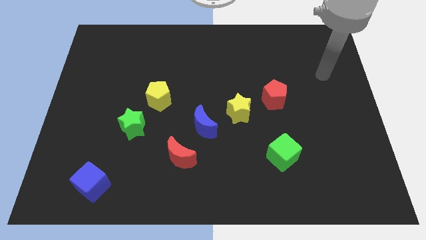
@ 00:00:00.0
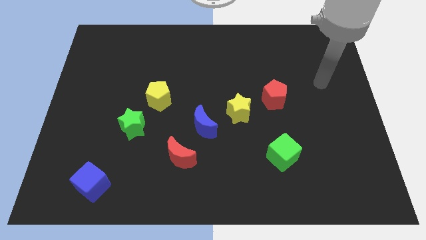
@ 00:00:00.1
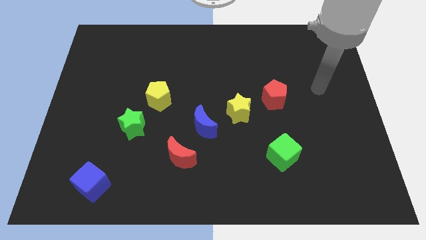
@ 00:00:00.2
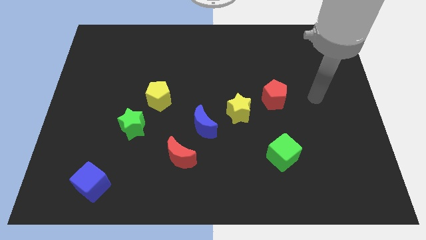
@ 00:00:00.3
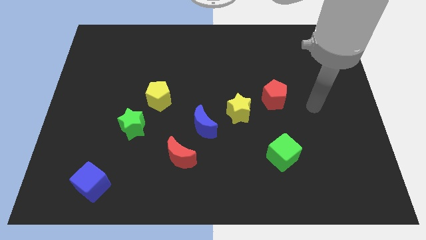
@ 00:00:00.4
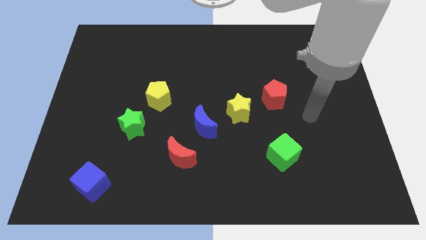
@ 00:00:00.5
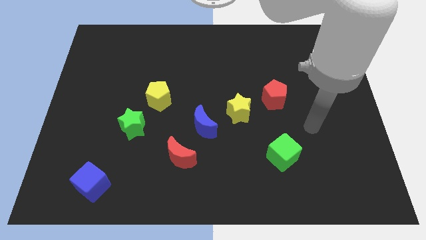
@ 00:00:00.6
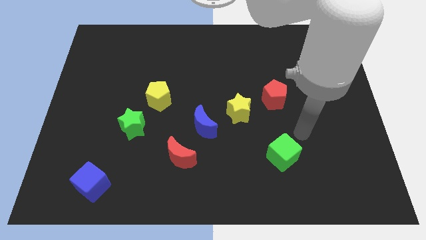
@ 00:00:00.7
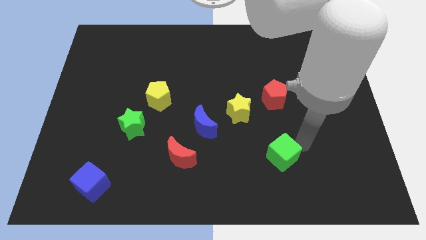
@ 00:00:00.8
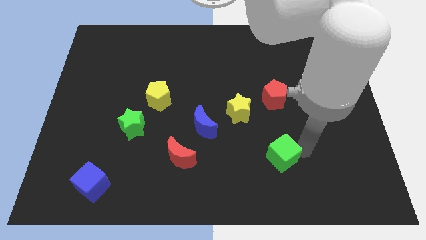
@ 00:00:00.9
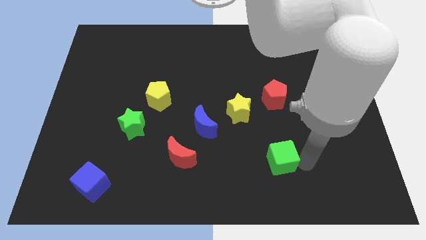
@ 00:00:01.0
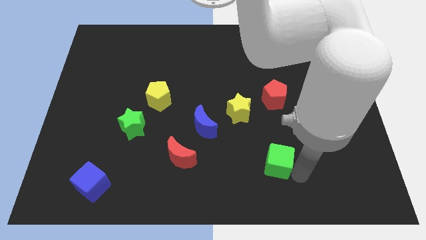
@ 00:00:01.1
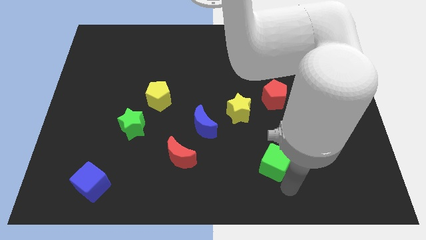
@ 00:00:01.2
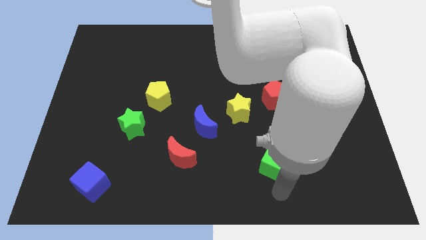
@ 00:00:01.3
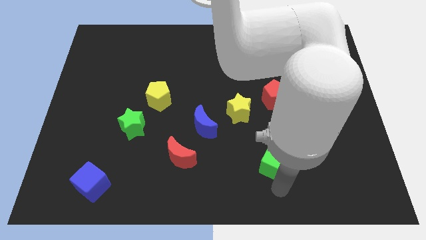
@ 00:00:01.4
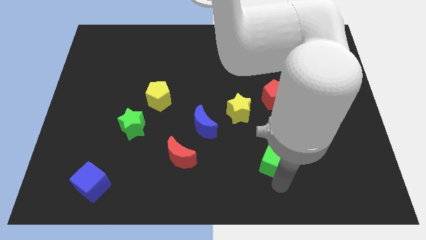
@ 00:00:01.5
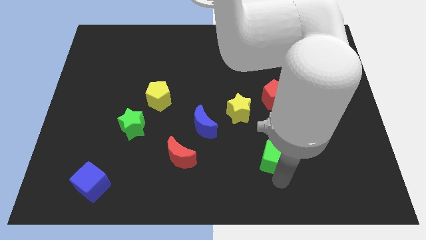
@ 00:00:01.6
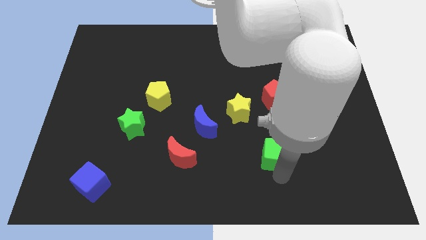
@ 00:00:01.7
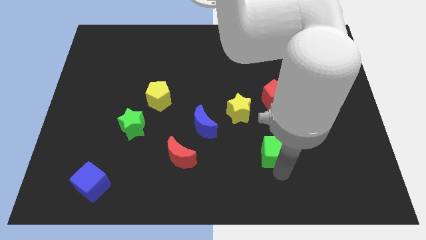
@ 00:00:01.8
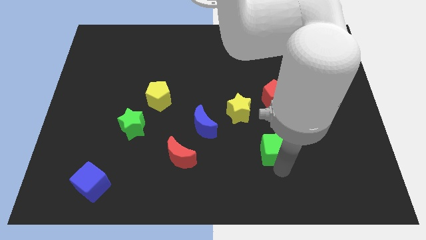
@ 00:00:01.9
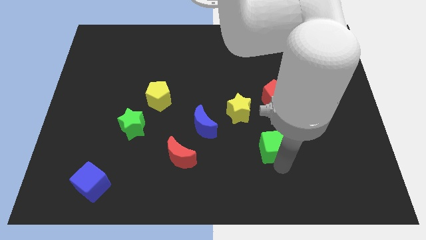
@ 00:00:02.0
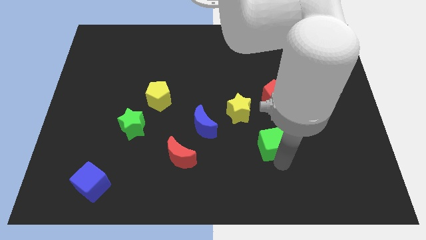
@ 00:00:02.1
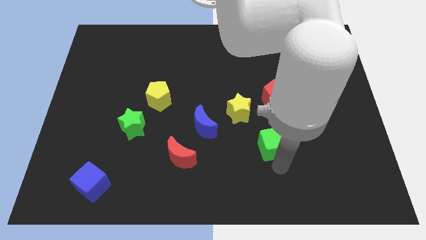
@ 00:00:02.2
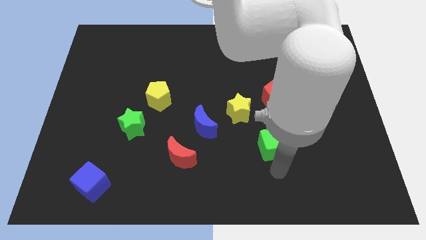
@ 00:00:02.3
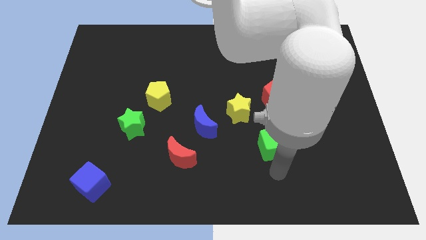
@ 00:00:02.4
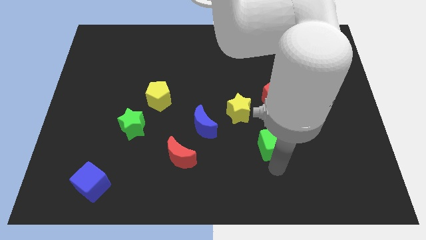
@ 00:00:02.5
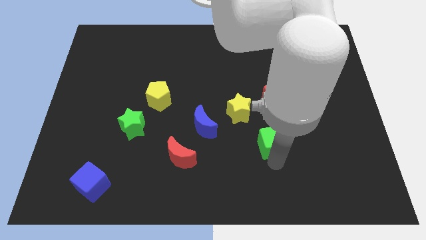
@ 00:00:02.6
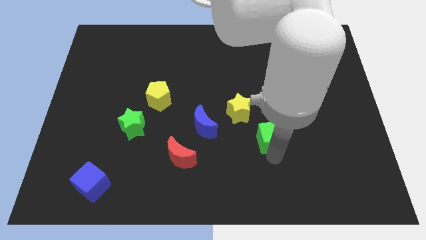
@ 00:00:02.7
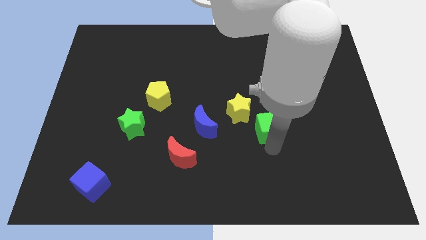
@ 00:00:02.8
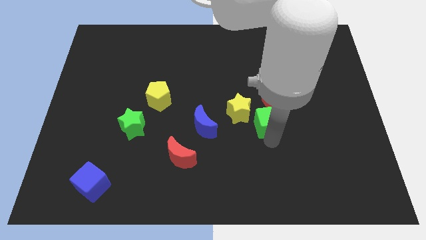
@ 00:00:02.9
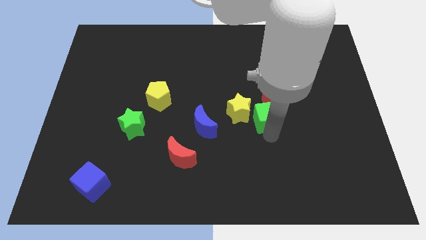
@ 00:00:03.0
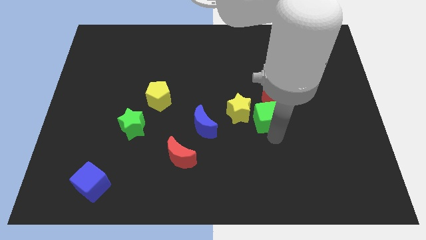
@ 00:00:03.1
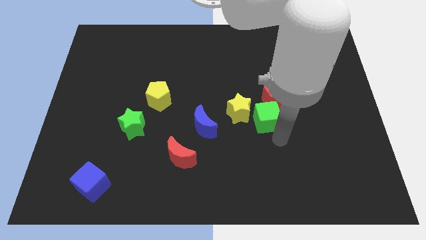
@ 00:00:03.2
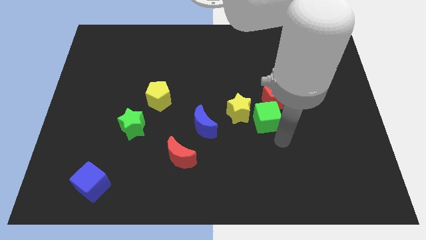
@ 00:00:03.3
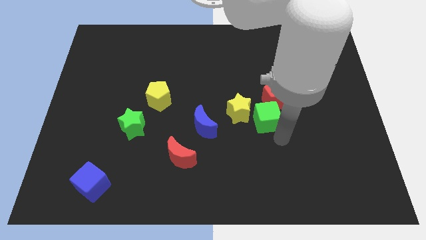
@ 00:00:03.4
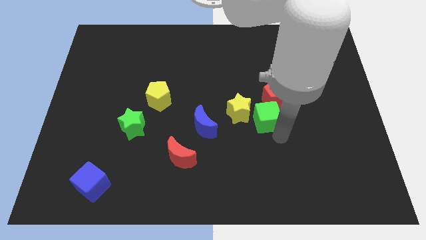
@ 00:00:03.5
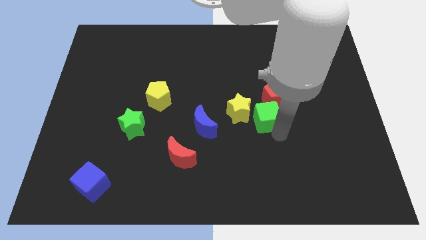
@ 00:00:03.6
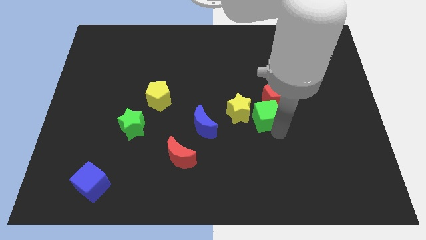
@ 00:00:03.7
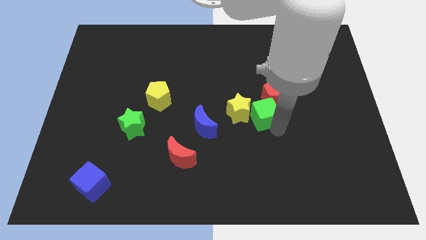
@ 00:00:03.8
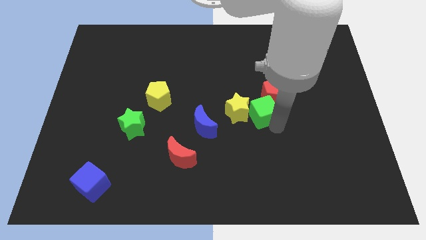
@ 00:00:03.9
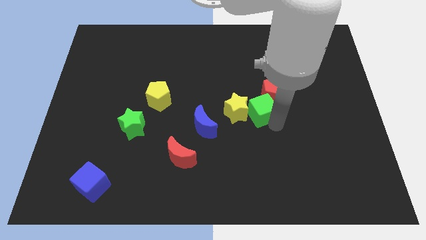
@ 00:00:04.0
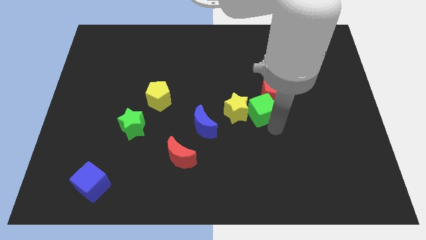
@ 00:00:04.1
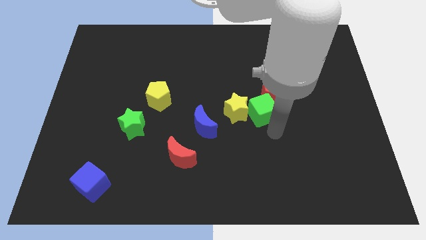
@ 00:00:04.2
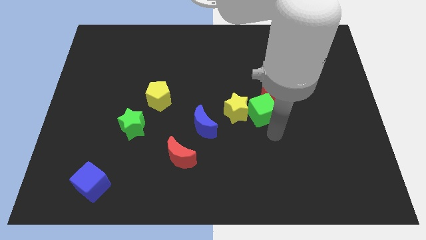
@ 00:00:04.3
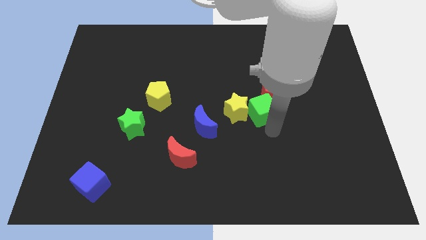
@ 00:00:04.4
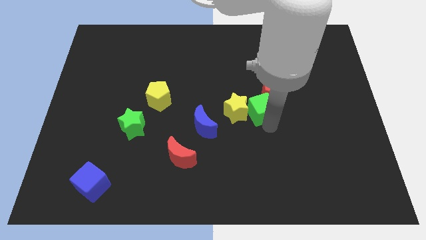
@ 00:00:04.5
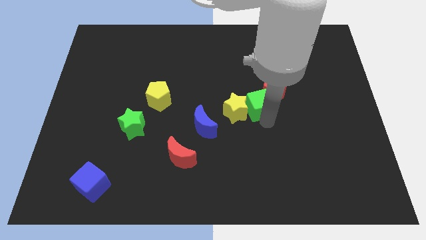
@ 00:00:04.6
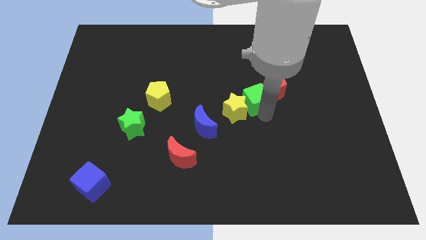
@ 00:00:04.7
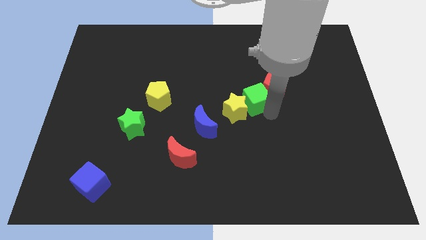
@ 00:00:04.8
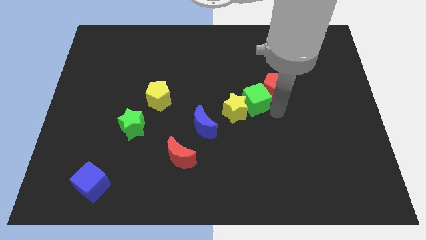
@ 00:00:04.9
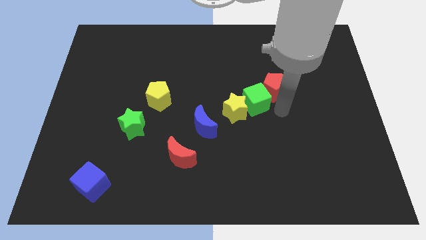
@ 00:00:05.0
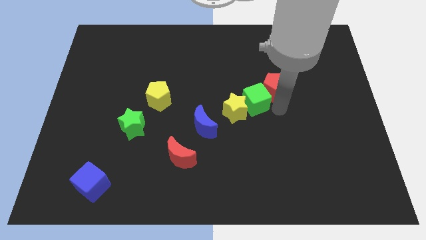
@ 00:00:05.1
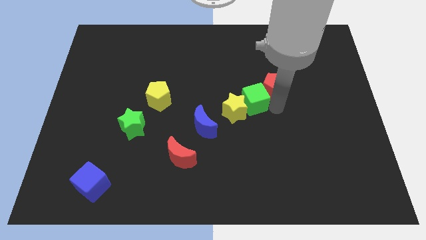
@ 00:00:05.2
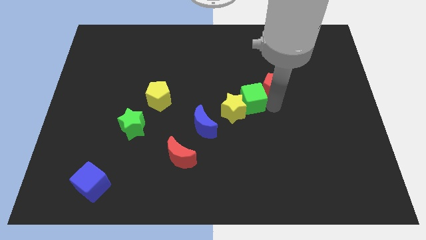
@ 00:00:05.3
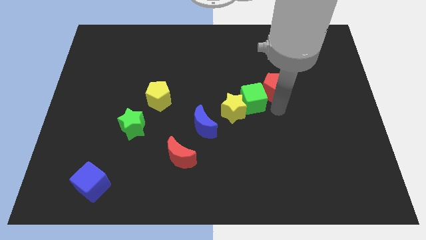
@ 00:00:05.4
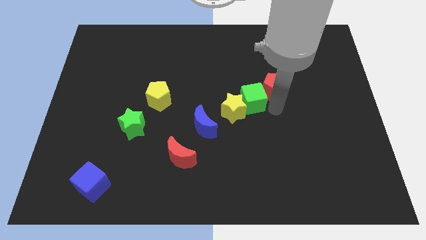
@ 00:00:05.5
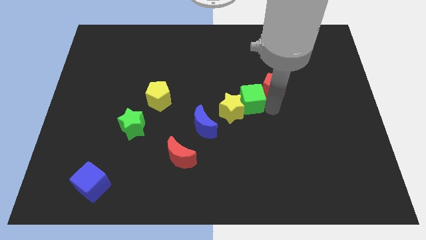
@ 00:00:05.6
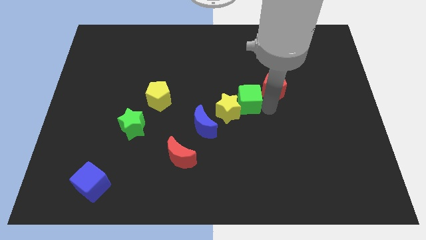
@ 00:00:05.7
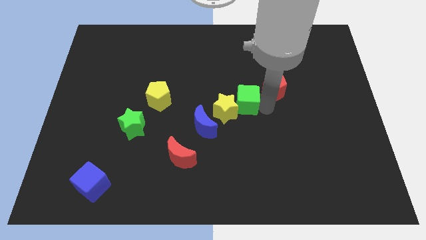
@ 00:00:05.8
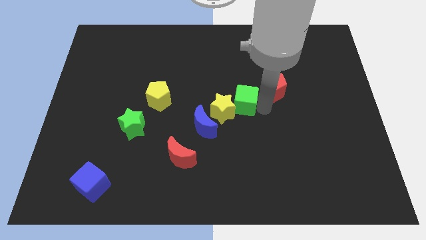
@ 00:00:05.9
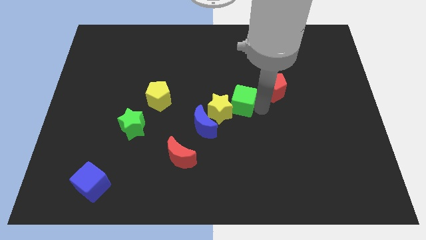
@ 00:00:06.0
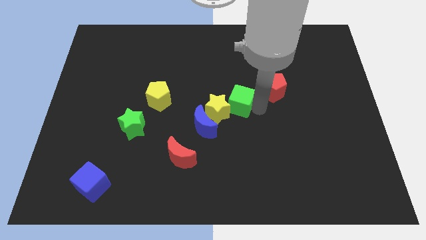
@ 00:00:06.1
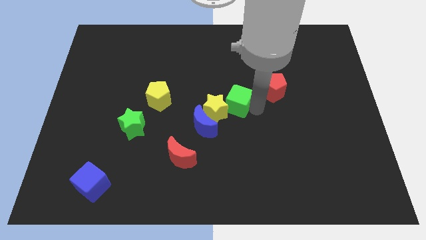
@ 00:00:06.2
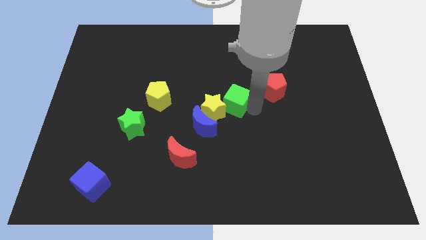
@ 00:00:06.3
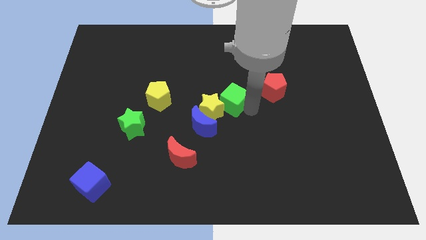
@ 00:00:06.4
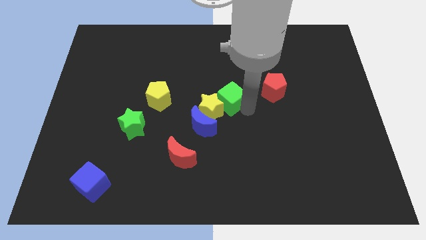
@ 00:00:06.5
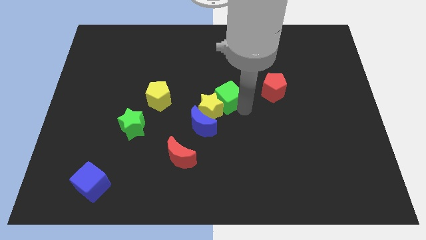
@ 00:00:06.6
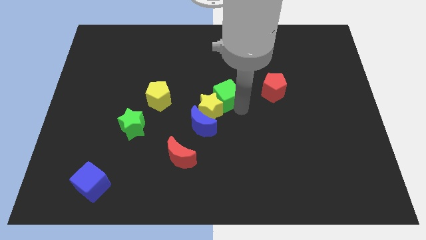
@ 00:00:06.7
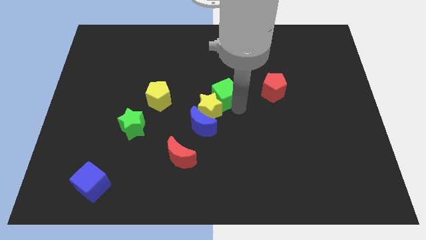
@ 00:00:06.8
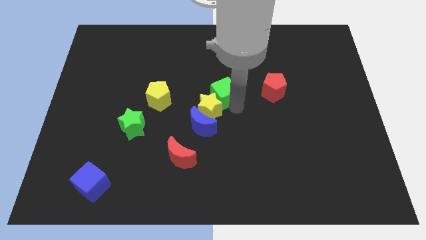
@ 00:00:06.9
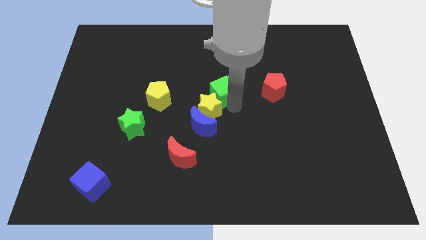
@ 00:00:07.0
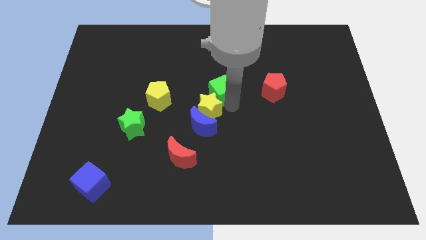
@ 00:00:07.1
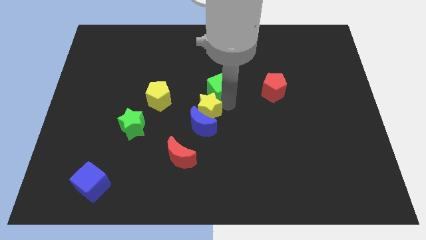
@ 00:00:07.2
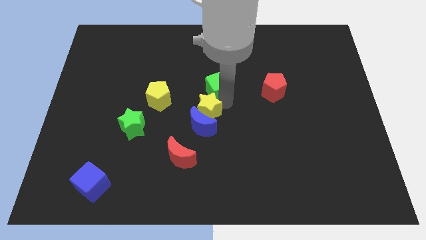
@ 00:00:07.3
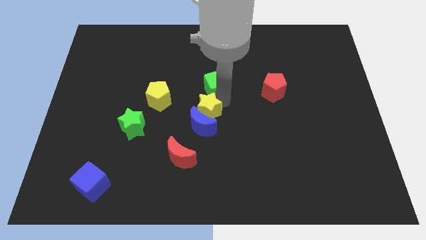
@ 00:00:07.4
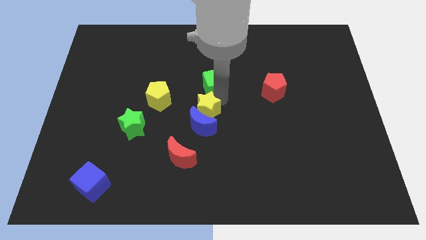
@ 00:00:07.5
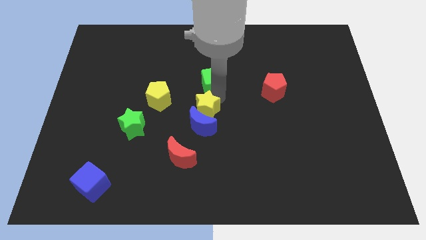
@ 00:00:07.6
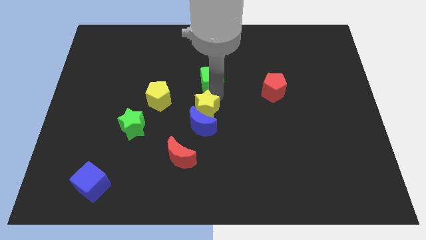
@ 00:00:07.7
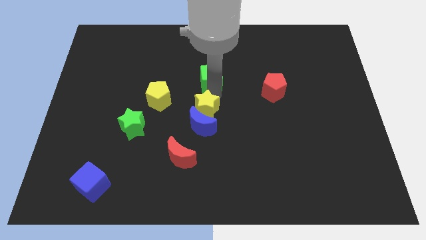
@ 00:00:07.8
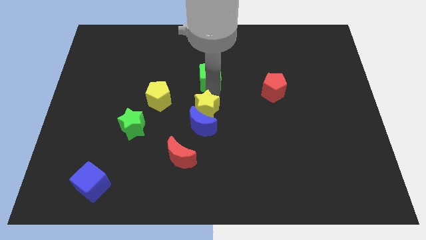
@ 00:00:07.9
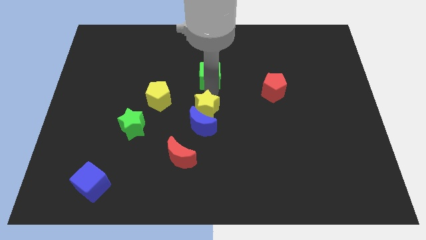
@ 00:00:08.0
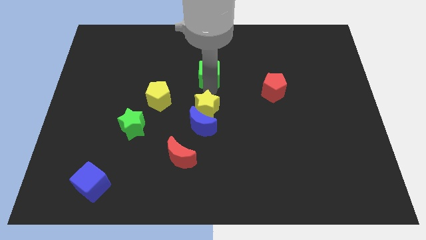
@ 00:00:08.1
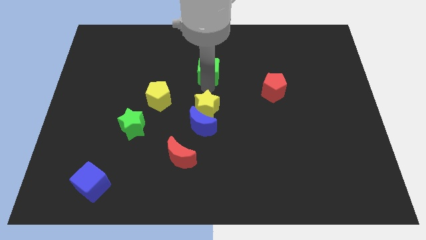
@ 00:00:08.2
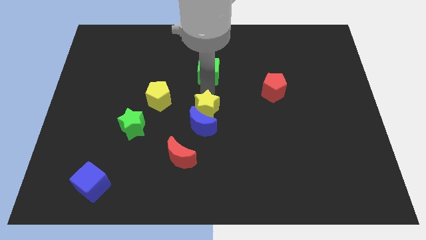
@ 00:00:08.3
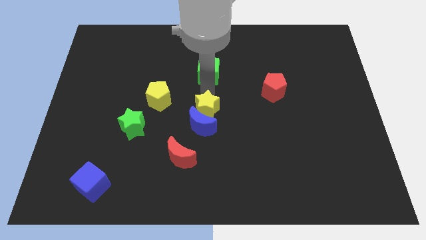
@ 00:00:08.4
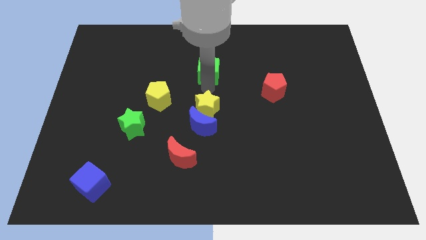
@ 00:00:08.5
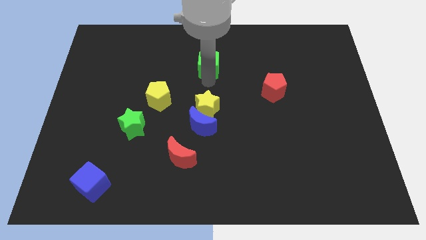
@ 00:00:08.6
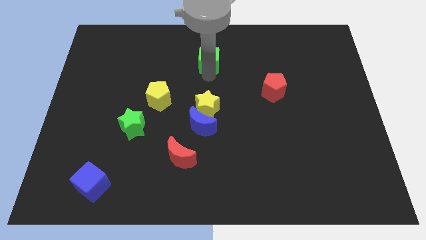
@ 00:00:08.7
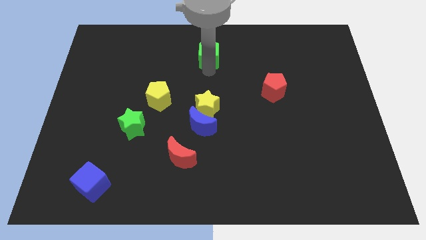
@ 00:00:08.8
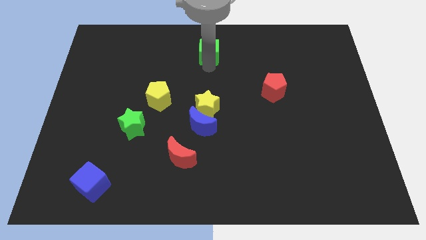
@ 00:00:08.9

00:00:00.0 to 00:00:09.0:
move the green cube to the top side
